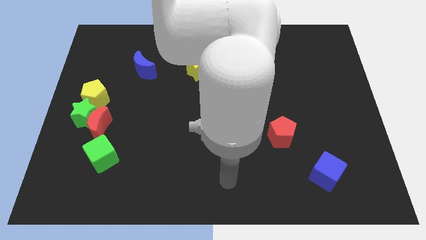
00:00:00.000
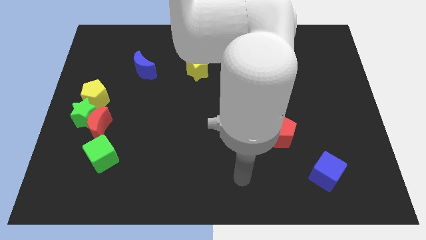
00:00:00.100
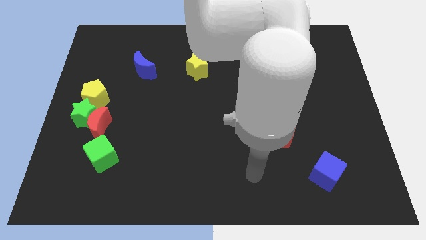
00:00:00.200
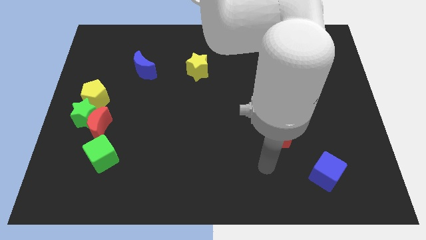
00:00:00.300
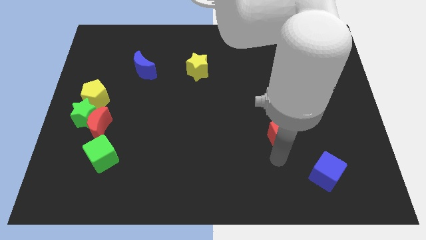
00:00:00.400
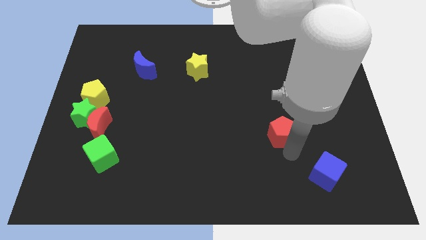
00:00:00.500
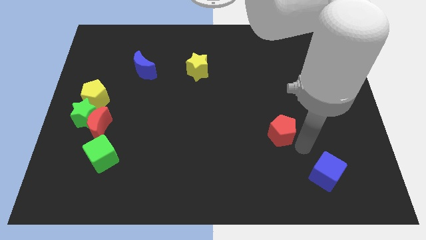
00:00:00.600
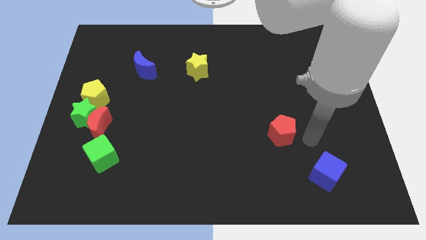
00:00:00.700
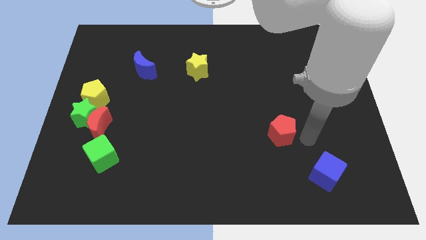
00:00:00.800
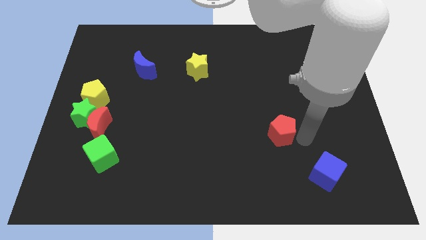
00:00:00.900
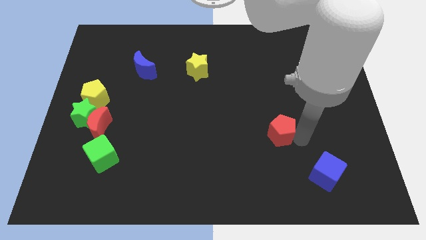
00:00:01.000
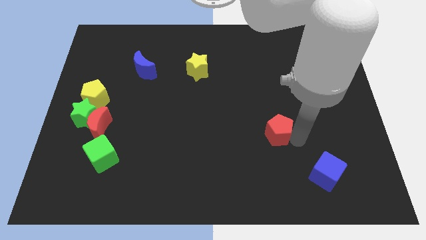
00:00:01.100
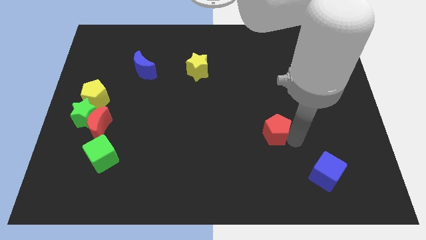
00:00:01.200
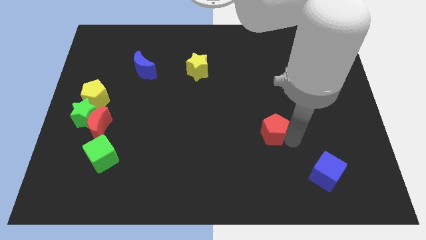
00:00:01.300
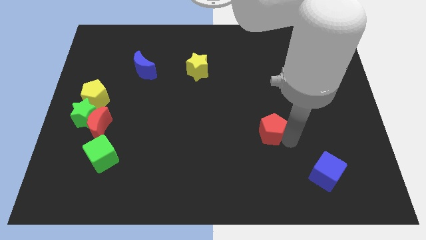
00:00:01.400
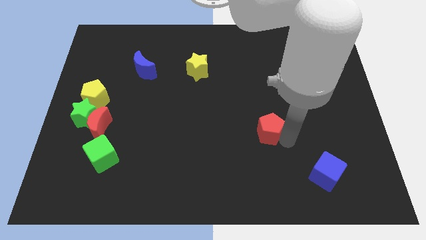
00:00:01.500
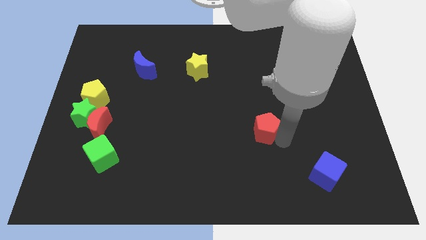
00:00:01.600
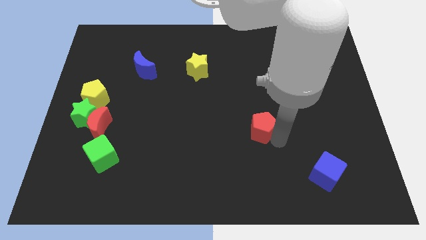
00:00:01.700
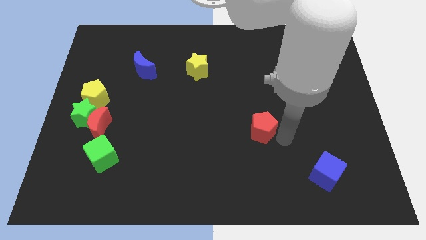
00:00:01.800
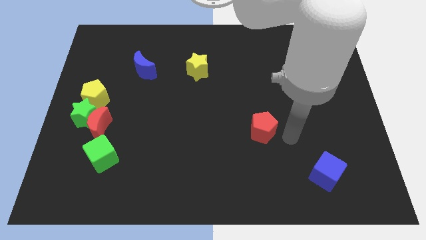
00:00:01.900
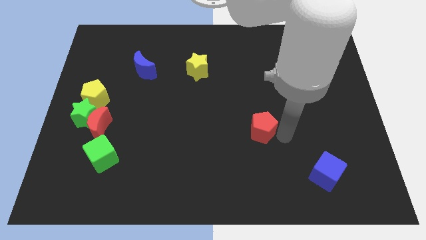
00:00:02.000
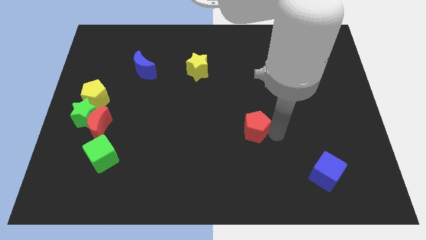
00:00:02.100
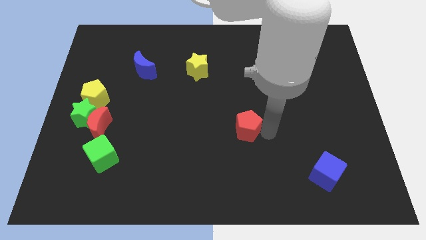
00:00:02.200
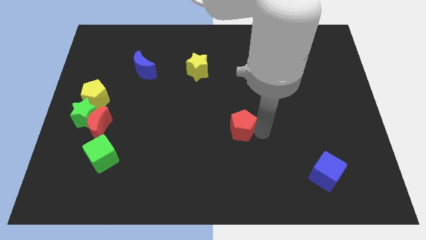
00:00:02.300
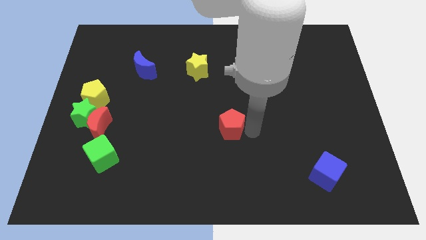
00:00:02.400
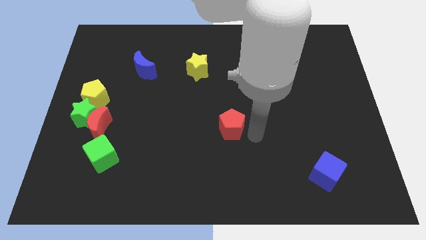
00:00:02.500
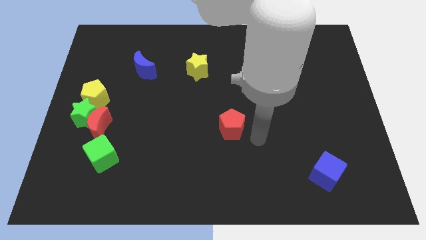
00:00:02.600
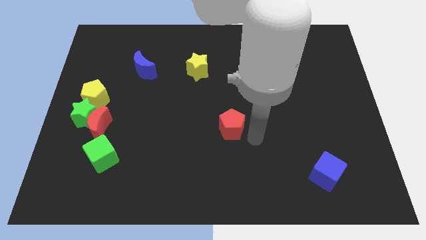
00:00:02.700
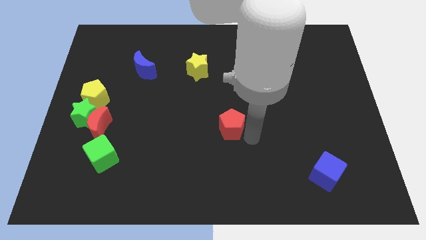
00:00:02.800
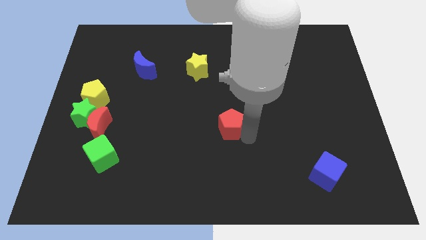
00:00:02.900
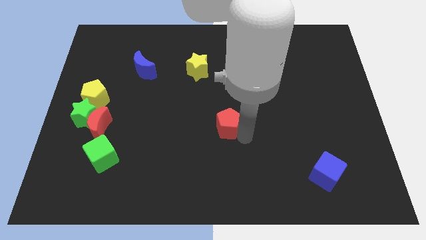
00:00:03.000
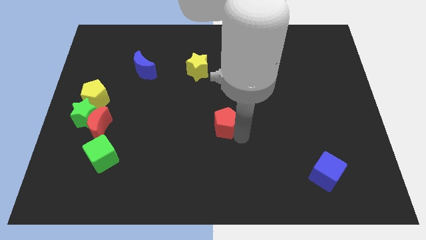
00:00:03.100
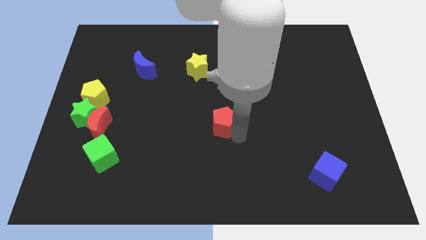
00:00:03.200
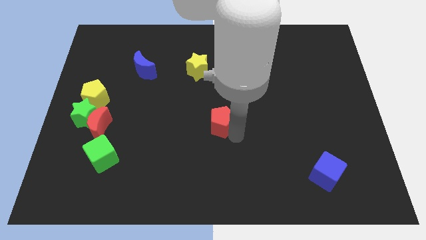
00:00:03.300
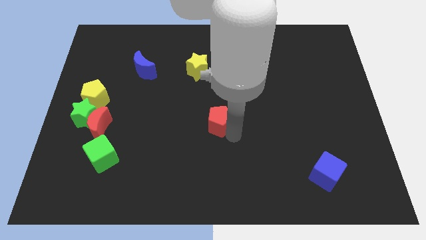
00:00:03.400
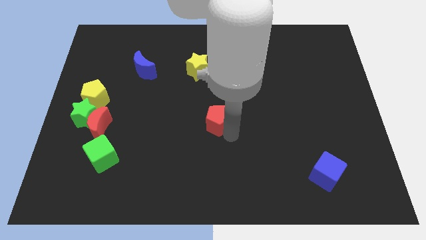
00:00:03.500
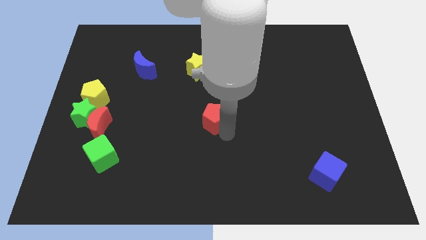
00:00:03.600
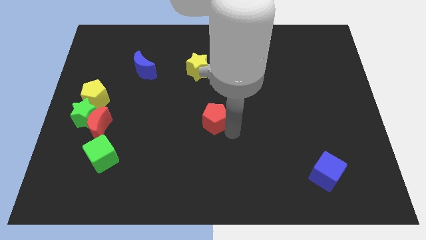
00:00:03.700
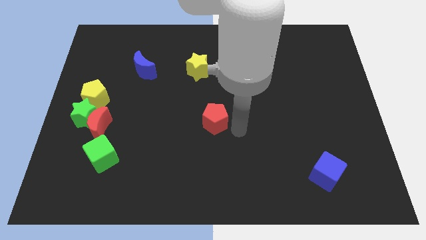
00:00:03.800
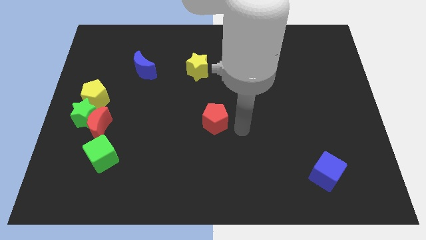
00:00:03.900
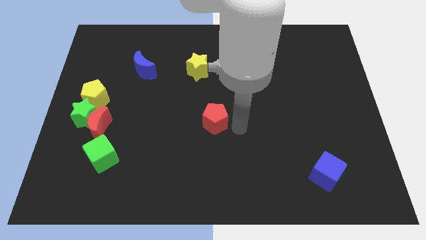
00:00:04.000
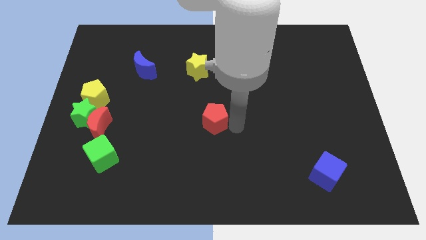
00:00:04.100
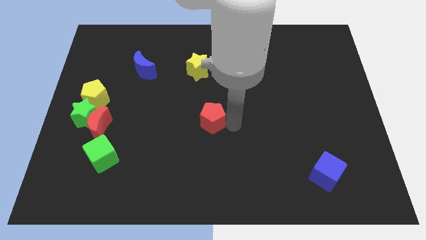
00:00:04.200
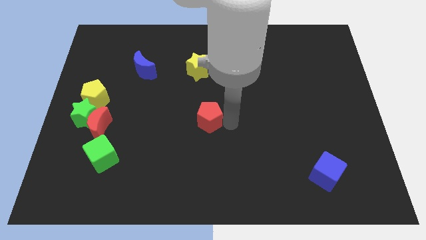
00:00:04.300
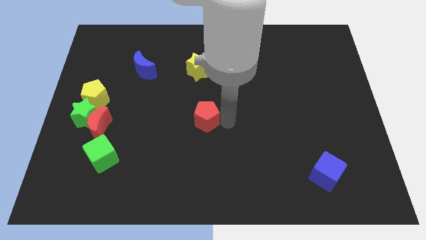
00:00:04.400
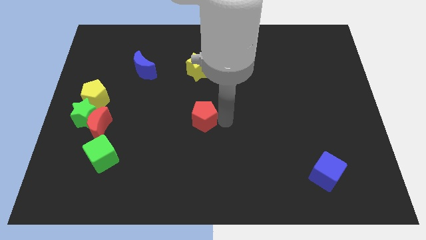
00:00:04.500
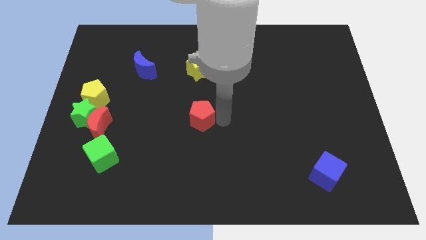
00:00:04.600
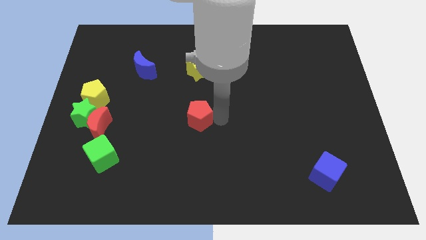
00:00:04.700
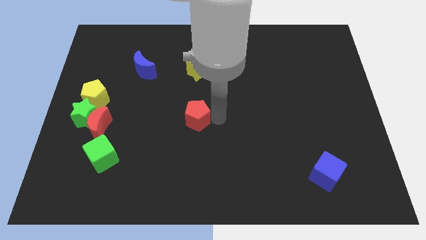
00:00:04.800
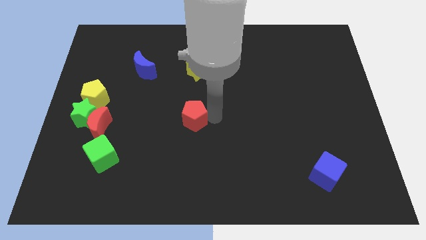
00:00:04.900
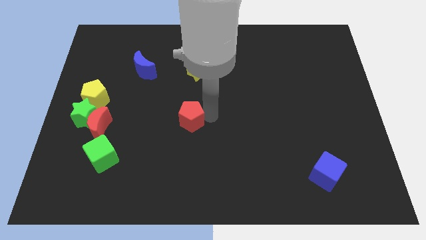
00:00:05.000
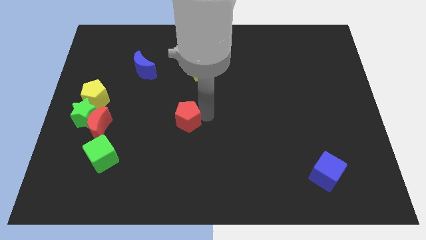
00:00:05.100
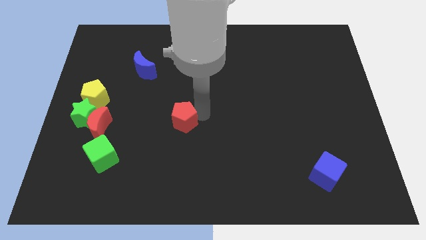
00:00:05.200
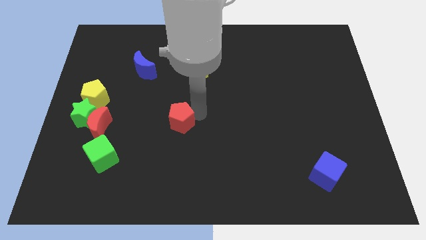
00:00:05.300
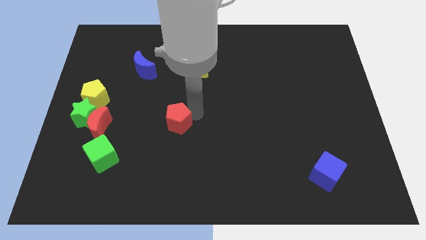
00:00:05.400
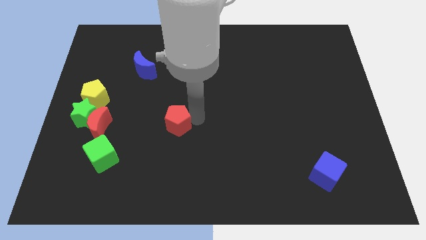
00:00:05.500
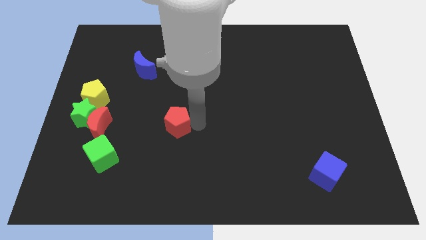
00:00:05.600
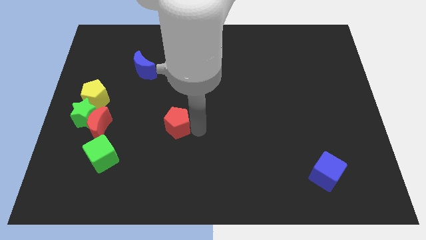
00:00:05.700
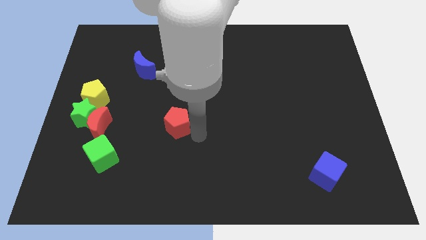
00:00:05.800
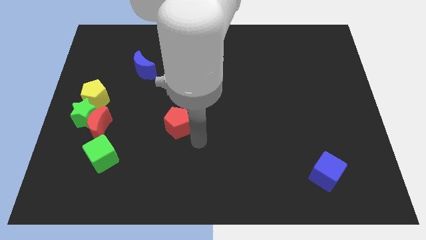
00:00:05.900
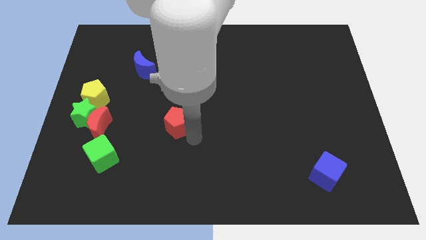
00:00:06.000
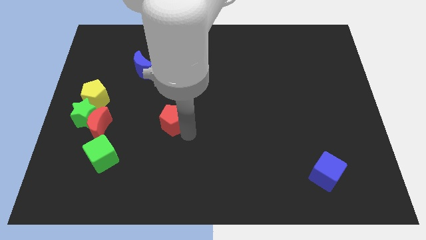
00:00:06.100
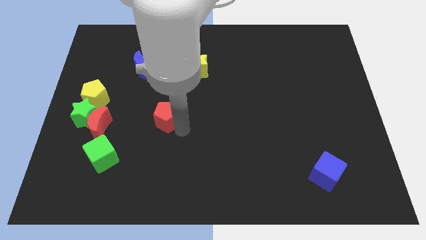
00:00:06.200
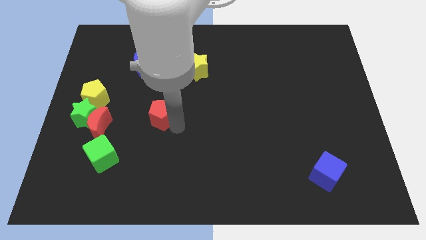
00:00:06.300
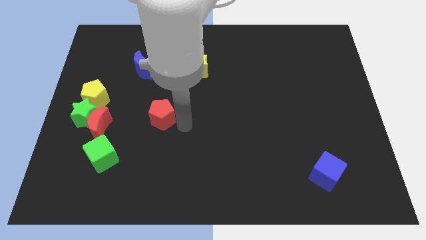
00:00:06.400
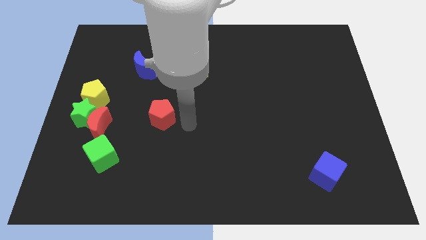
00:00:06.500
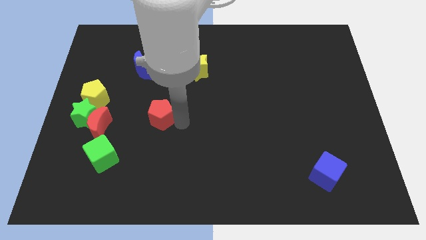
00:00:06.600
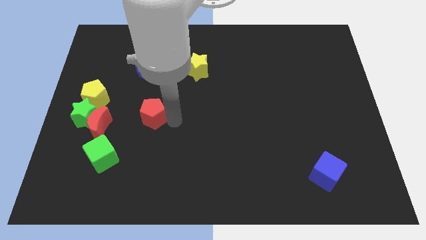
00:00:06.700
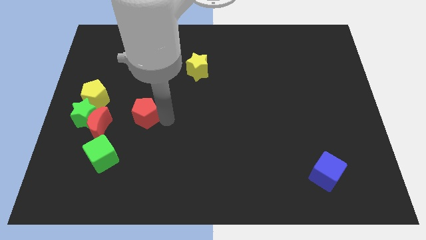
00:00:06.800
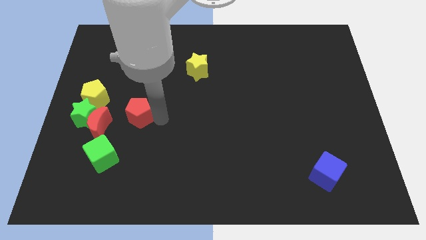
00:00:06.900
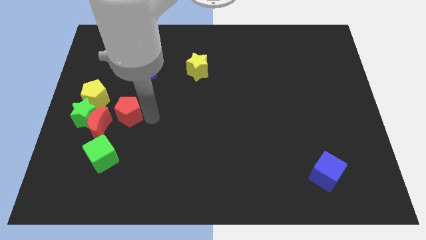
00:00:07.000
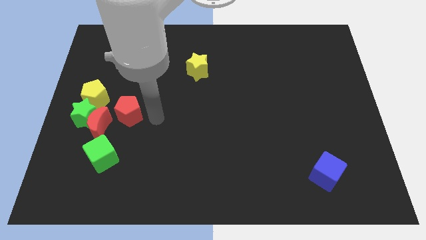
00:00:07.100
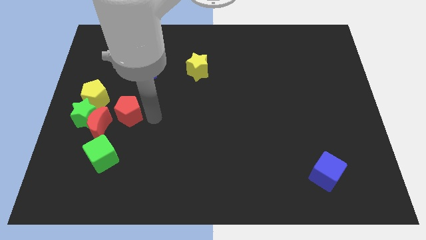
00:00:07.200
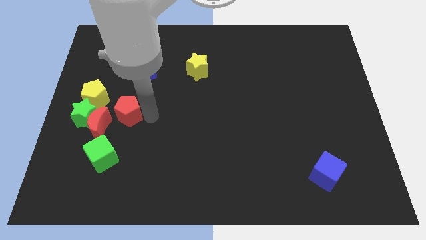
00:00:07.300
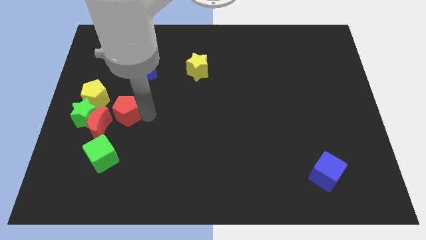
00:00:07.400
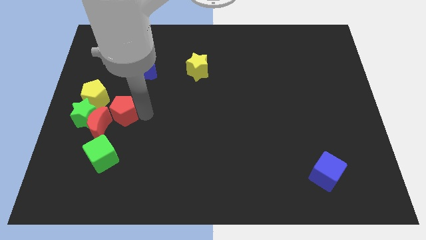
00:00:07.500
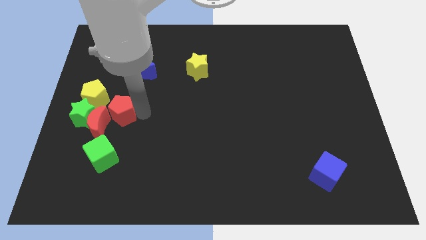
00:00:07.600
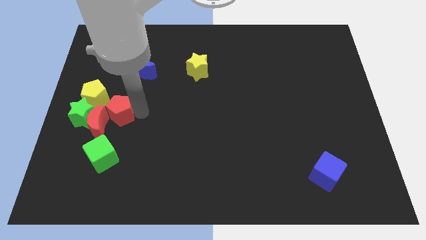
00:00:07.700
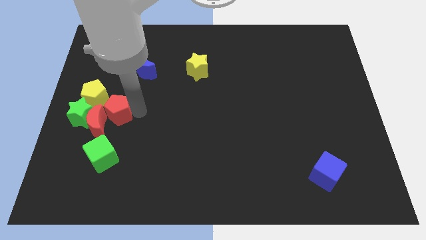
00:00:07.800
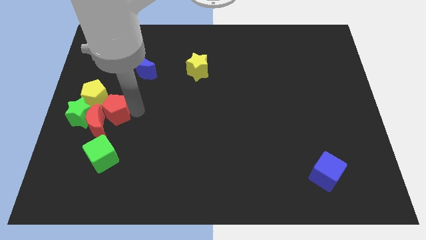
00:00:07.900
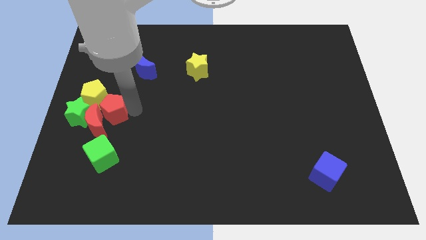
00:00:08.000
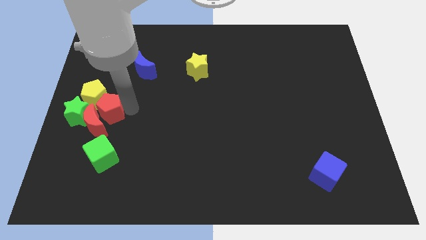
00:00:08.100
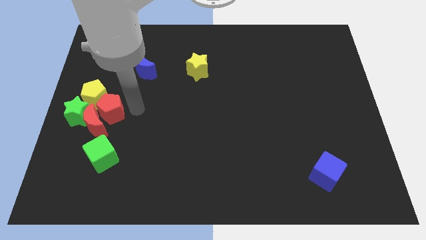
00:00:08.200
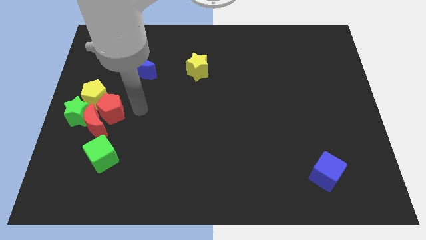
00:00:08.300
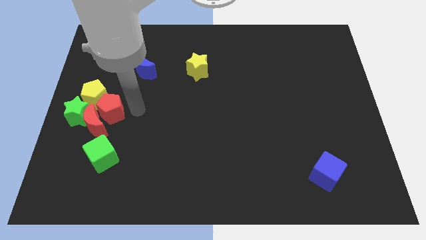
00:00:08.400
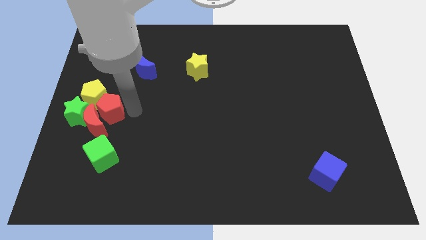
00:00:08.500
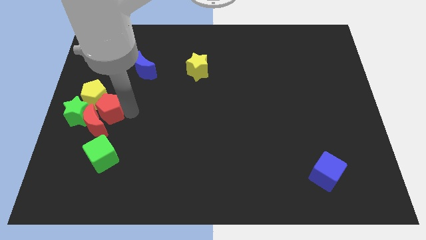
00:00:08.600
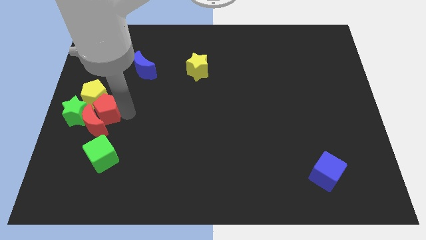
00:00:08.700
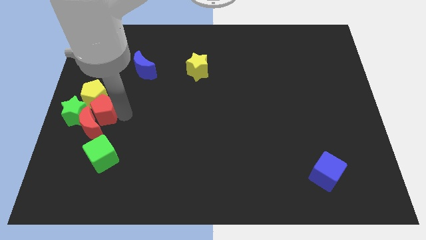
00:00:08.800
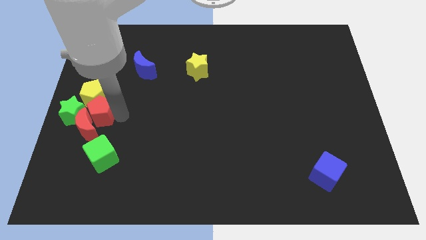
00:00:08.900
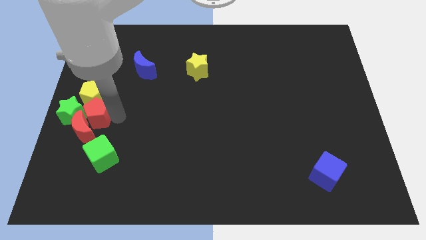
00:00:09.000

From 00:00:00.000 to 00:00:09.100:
push the red pentagon close to the green star
